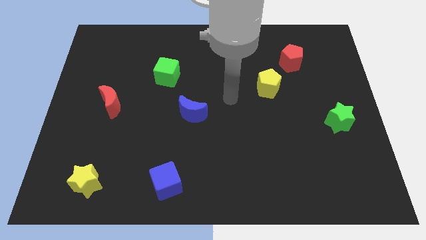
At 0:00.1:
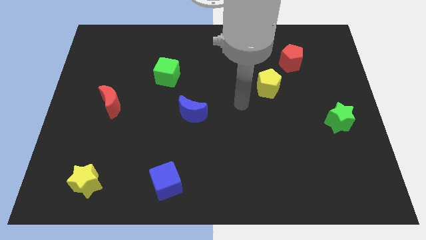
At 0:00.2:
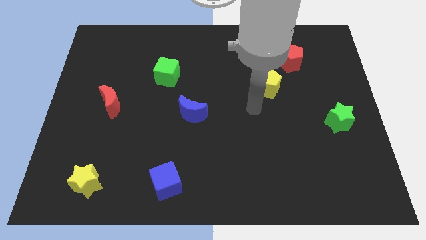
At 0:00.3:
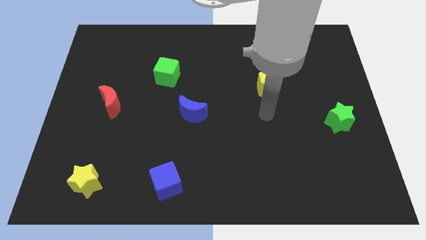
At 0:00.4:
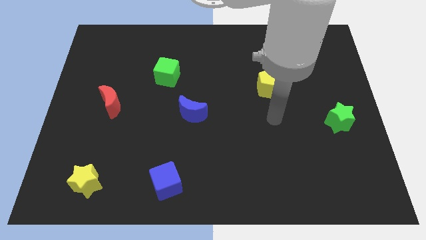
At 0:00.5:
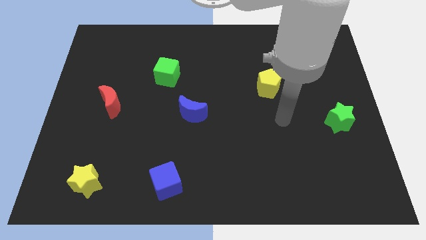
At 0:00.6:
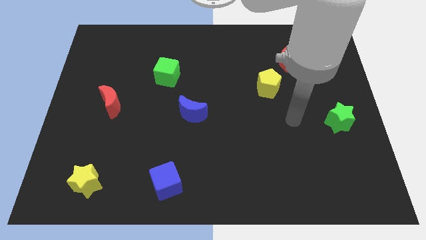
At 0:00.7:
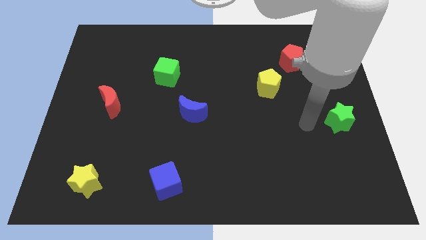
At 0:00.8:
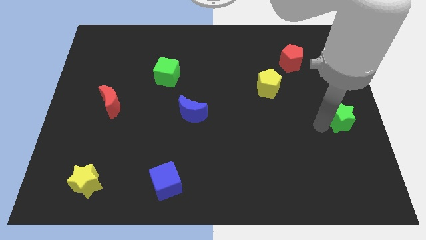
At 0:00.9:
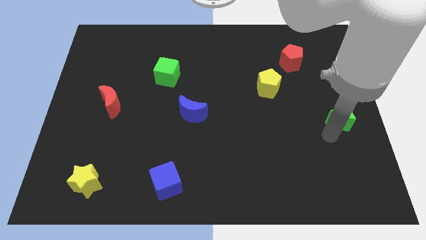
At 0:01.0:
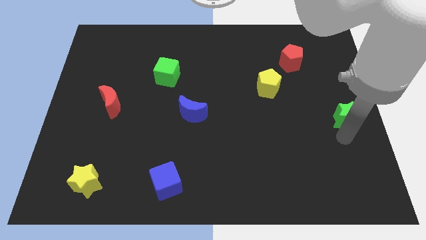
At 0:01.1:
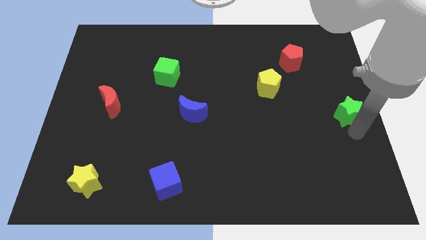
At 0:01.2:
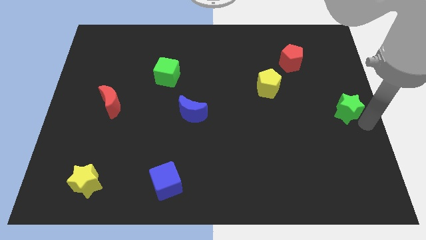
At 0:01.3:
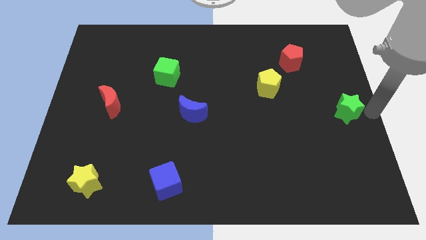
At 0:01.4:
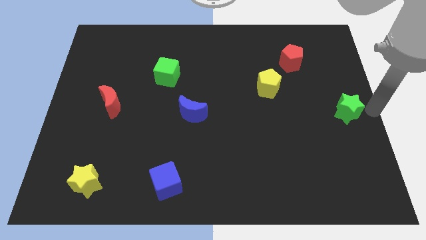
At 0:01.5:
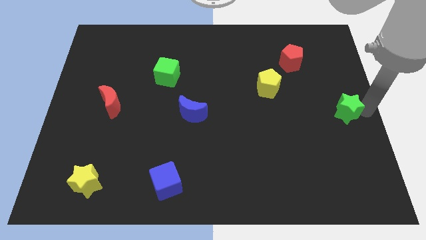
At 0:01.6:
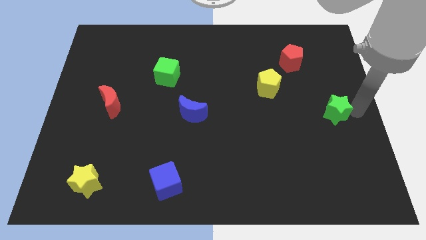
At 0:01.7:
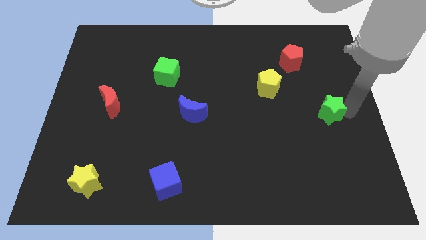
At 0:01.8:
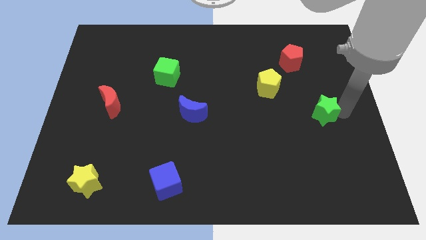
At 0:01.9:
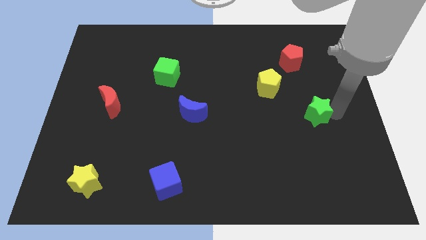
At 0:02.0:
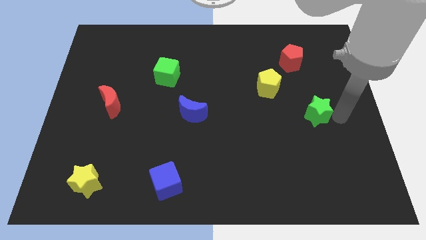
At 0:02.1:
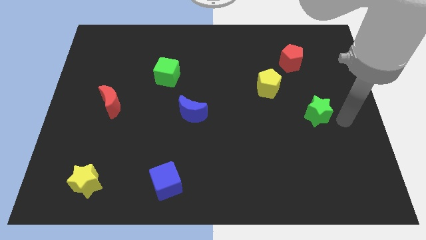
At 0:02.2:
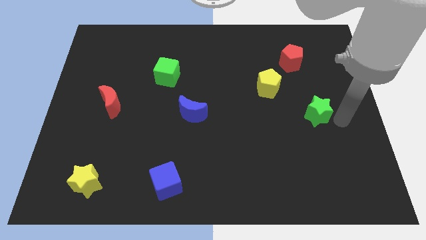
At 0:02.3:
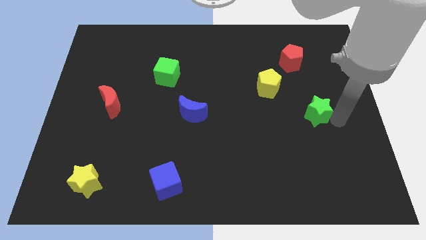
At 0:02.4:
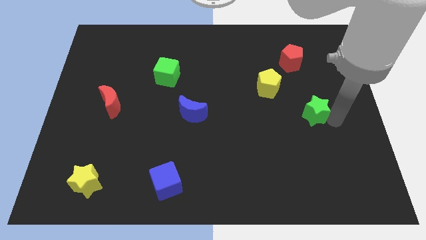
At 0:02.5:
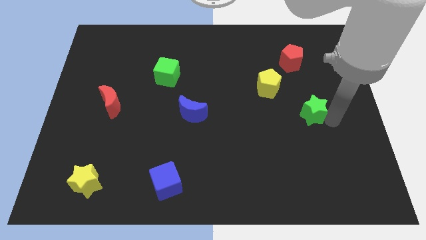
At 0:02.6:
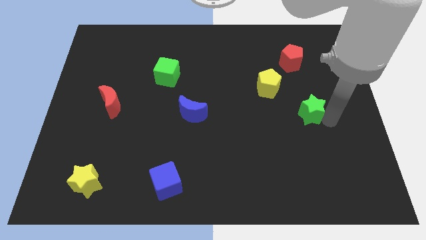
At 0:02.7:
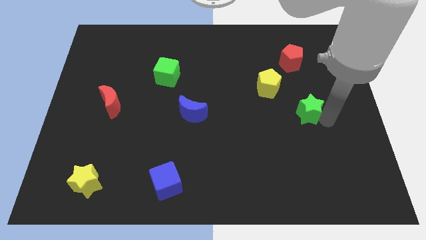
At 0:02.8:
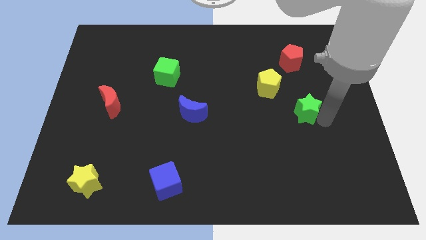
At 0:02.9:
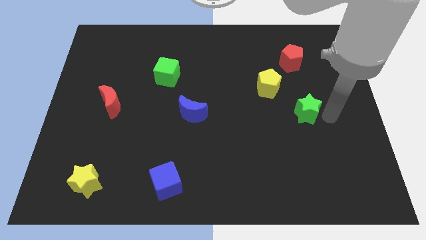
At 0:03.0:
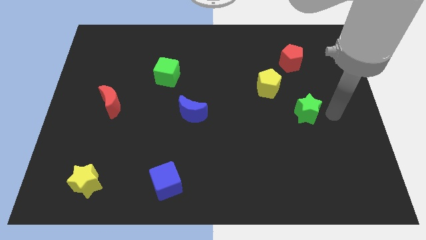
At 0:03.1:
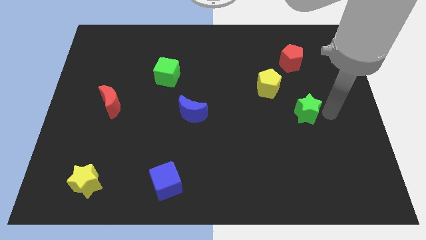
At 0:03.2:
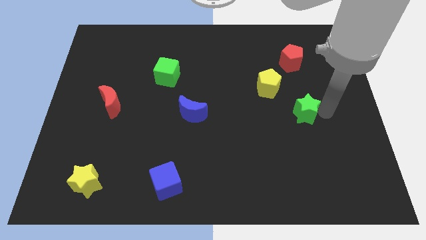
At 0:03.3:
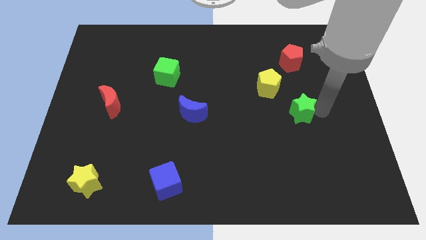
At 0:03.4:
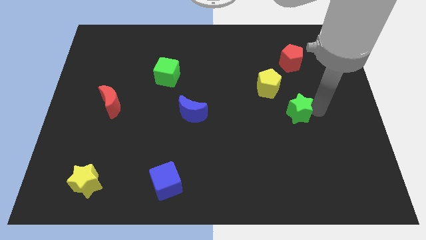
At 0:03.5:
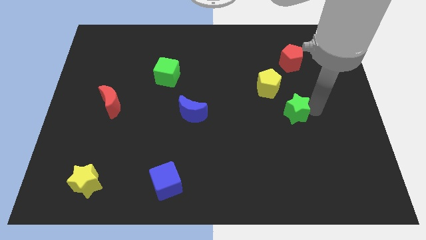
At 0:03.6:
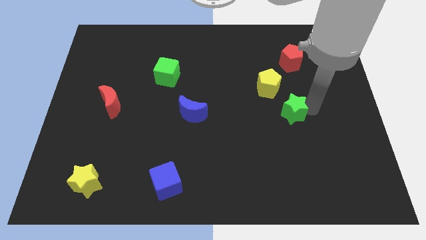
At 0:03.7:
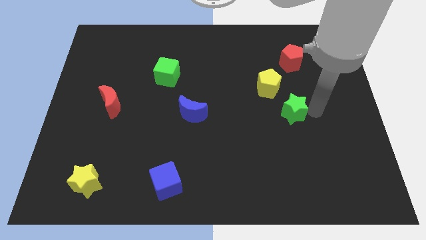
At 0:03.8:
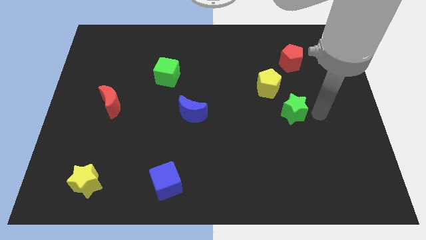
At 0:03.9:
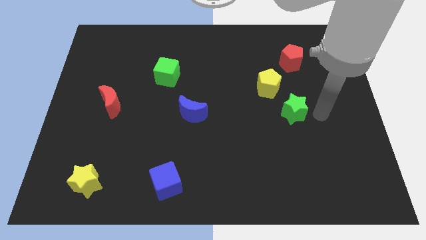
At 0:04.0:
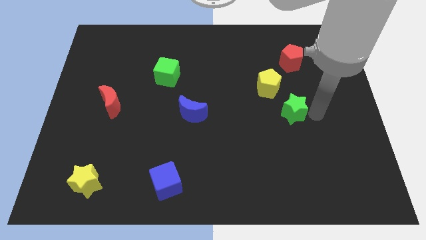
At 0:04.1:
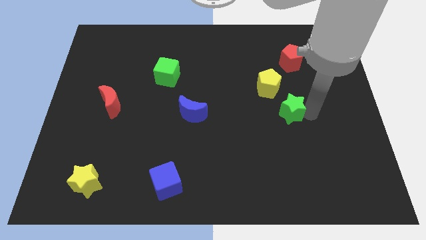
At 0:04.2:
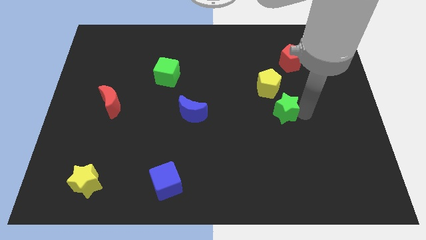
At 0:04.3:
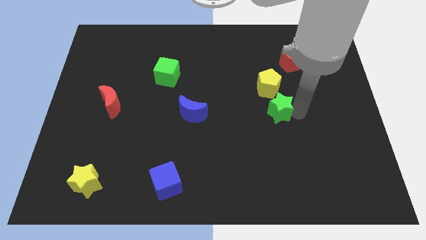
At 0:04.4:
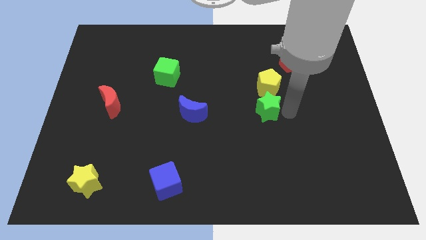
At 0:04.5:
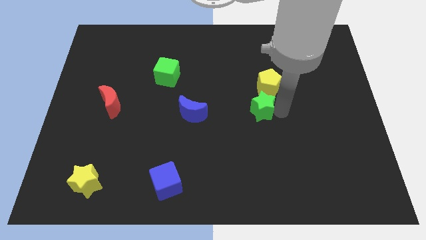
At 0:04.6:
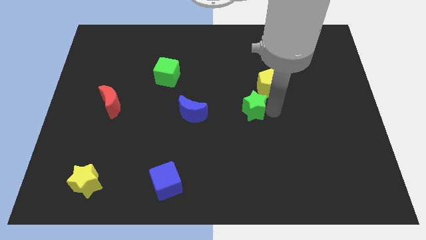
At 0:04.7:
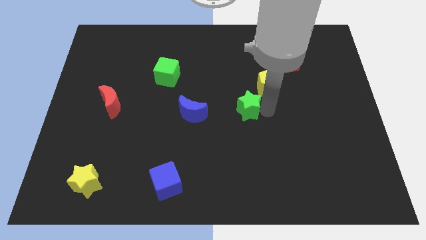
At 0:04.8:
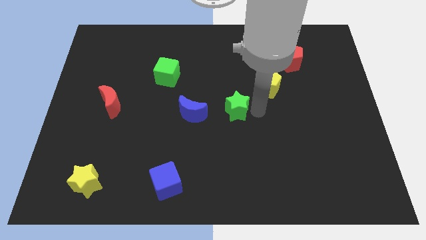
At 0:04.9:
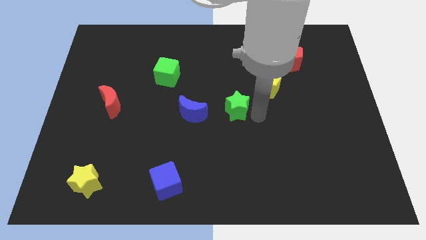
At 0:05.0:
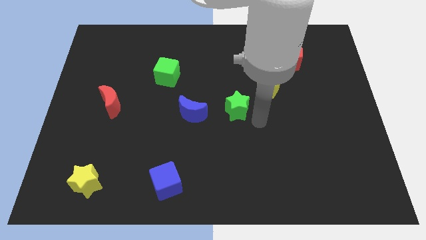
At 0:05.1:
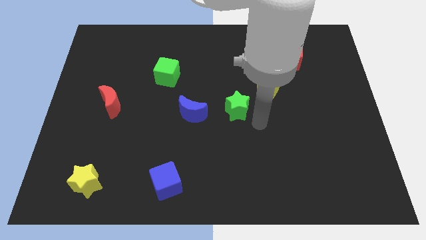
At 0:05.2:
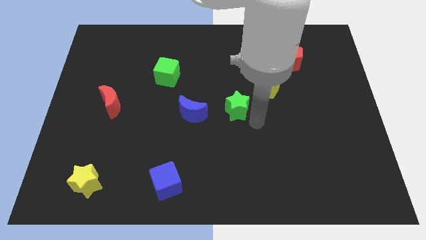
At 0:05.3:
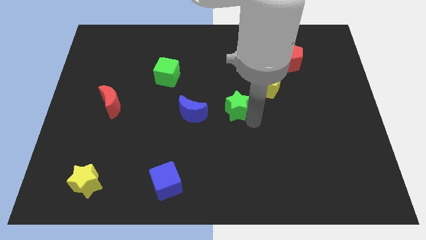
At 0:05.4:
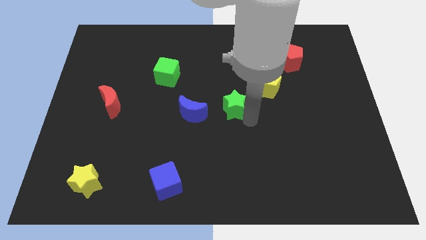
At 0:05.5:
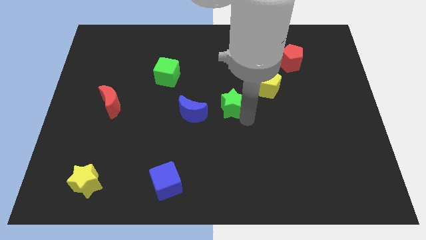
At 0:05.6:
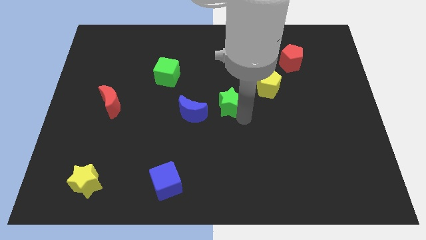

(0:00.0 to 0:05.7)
push the green star to the top right of the blue moon

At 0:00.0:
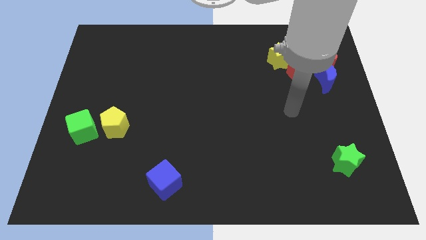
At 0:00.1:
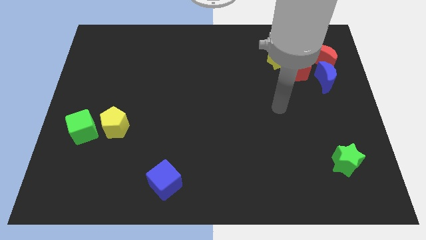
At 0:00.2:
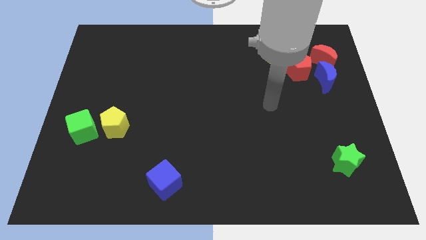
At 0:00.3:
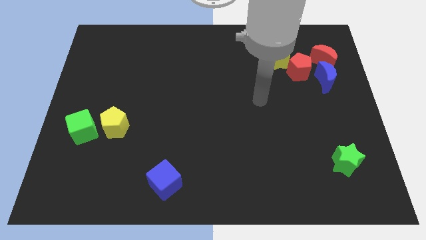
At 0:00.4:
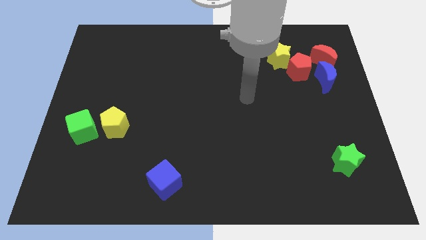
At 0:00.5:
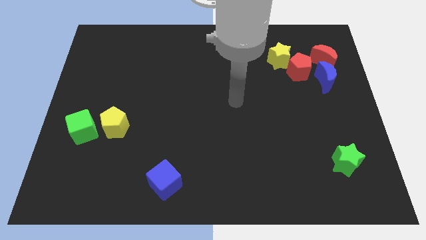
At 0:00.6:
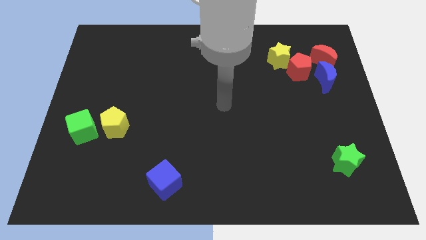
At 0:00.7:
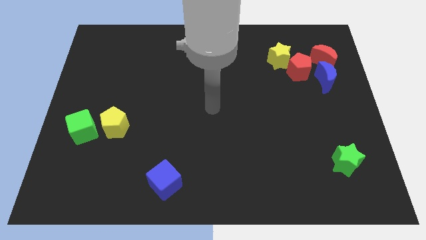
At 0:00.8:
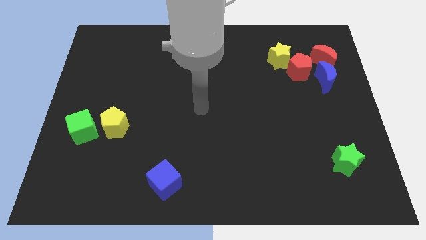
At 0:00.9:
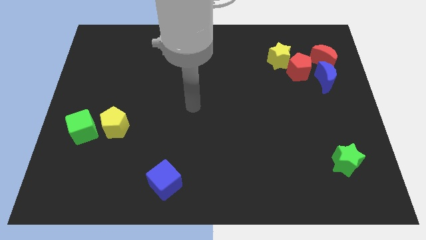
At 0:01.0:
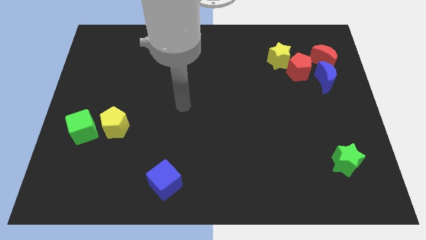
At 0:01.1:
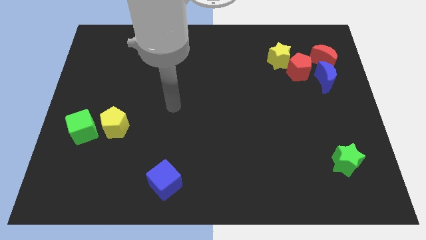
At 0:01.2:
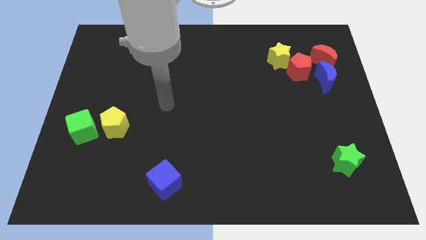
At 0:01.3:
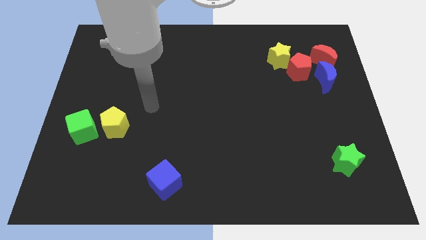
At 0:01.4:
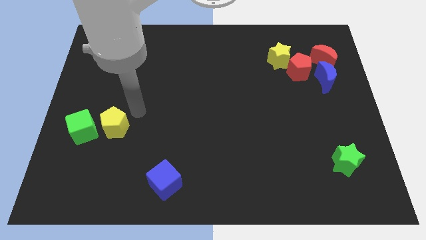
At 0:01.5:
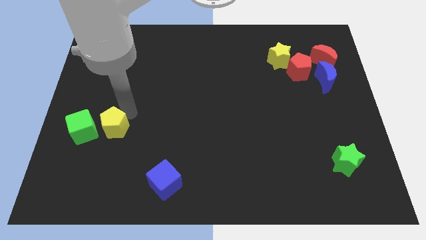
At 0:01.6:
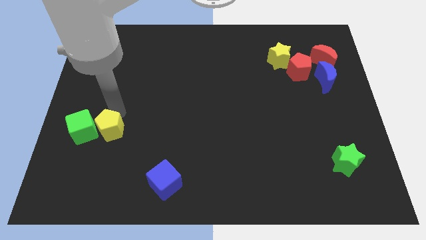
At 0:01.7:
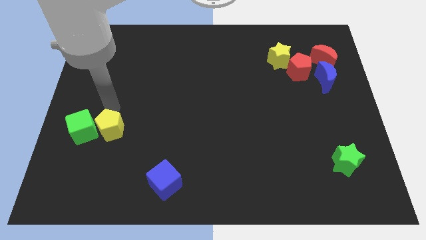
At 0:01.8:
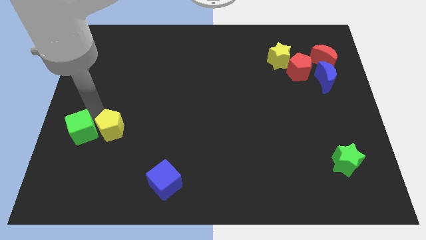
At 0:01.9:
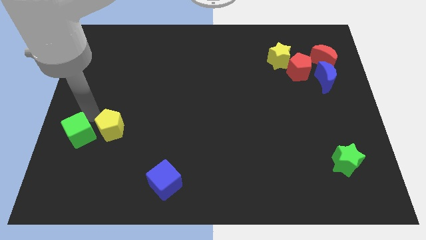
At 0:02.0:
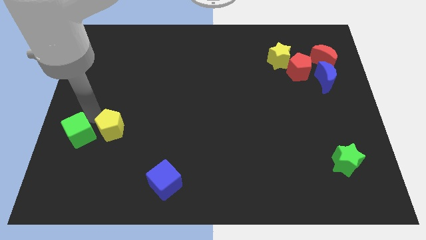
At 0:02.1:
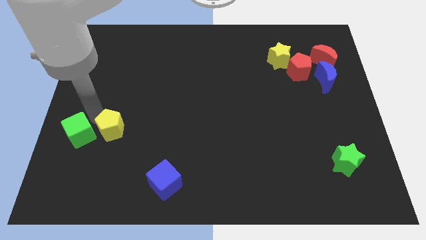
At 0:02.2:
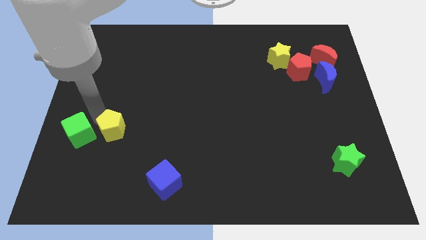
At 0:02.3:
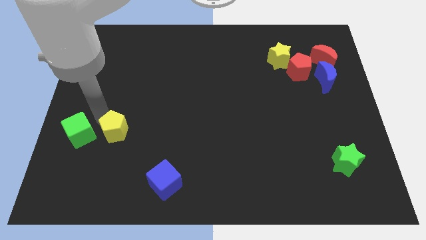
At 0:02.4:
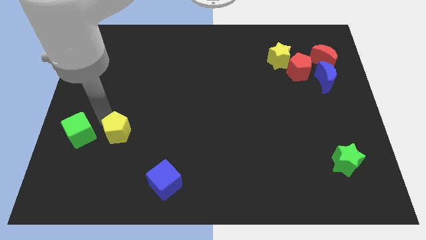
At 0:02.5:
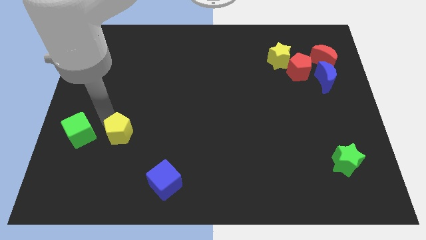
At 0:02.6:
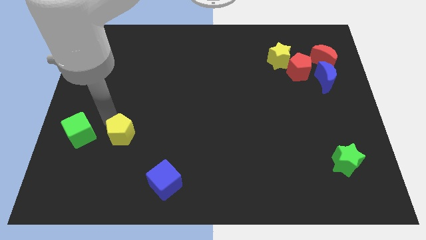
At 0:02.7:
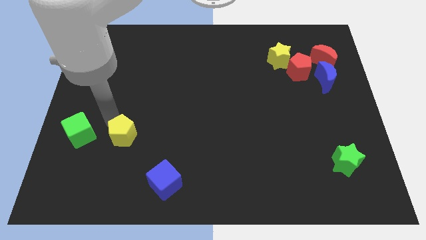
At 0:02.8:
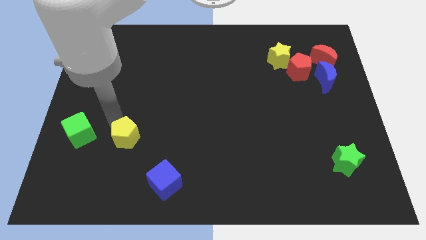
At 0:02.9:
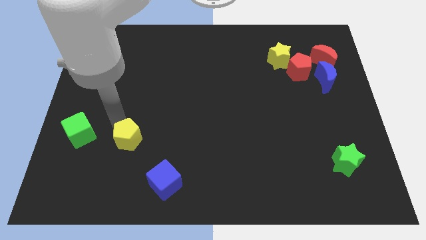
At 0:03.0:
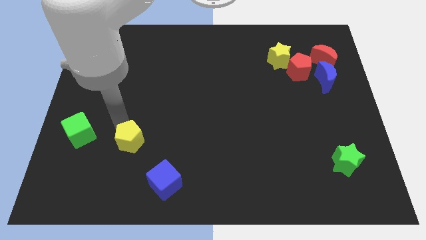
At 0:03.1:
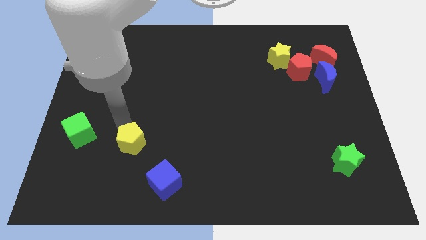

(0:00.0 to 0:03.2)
move the yellow pentagon to the top left side of the blue cube
